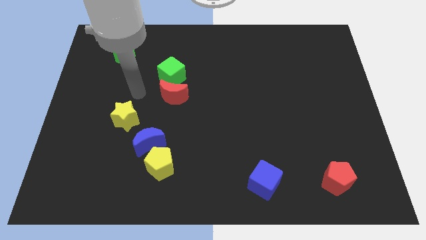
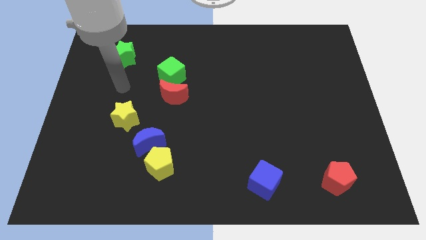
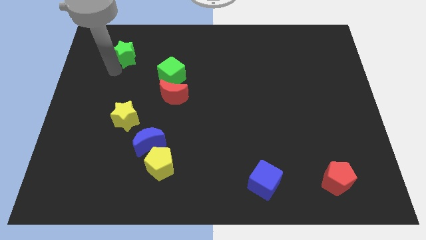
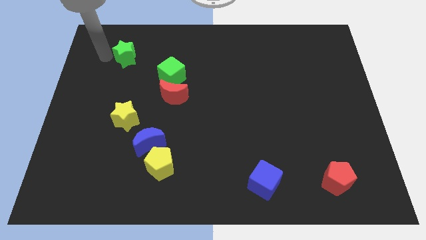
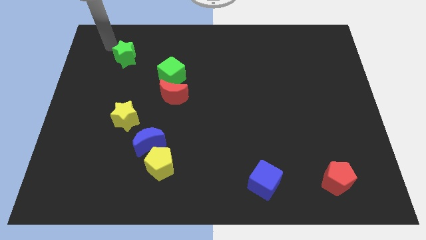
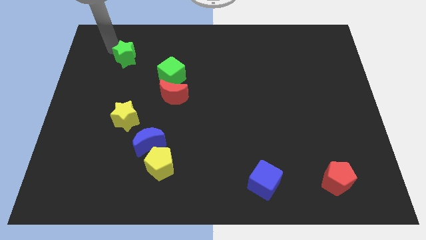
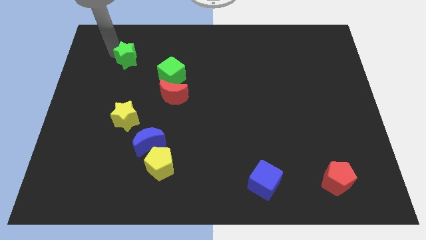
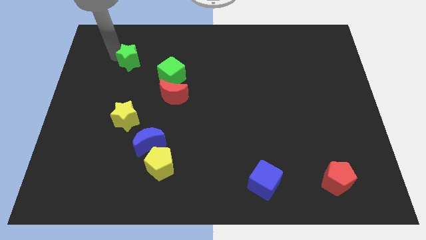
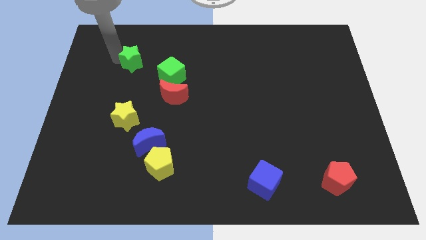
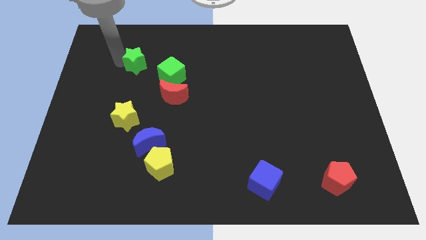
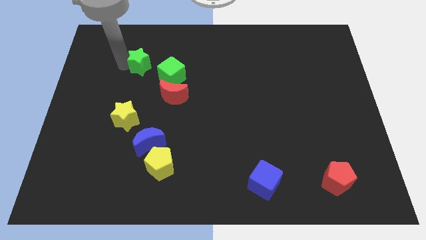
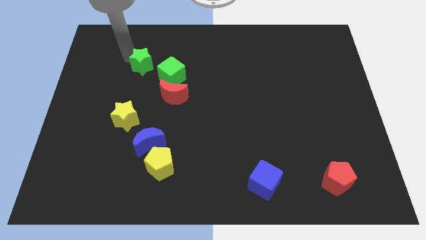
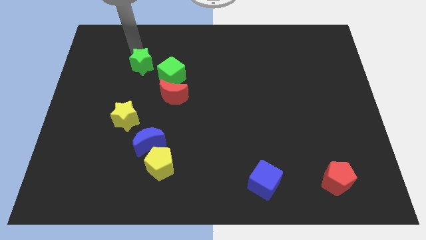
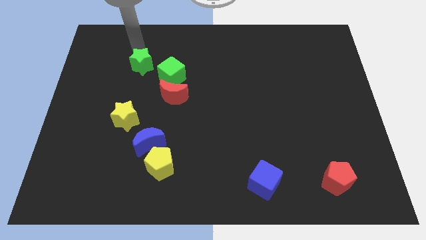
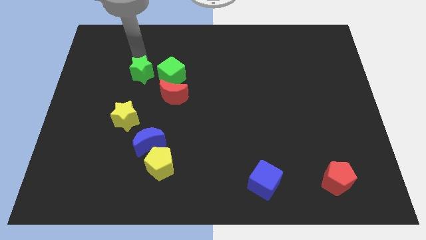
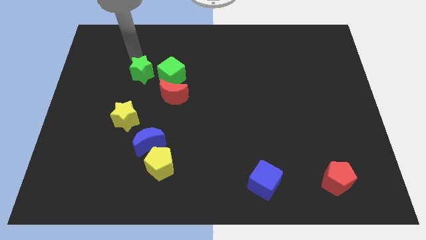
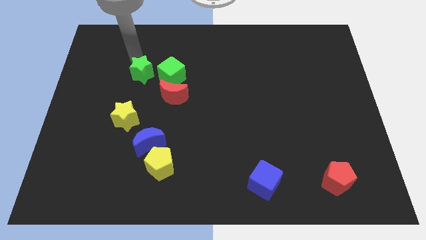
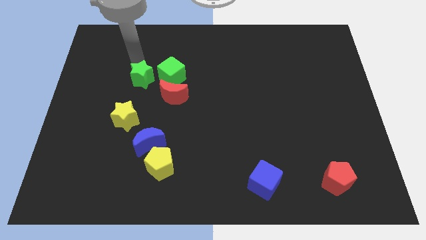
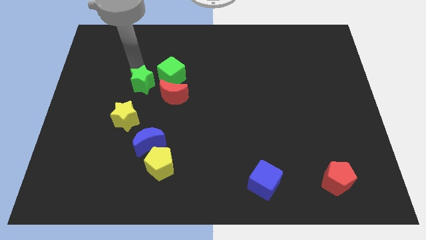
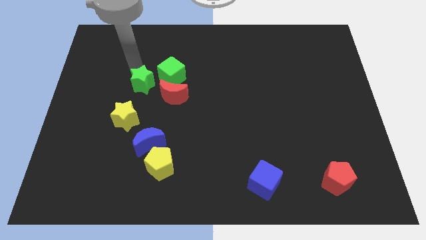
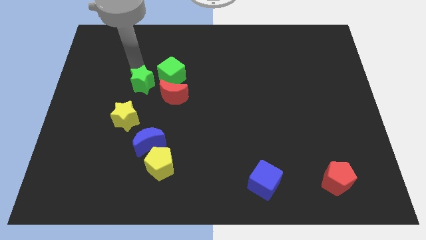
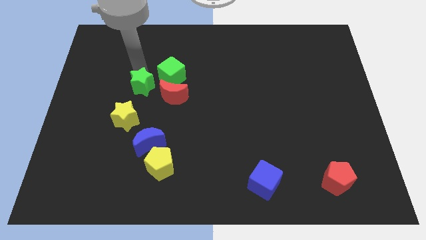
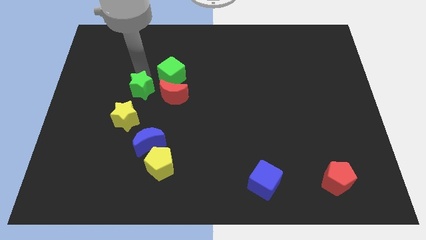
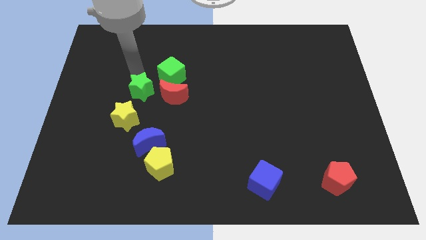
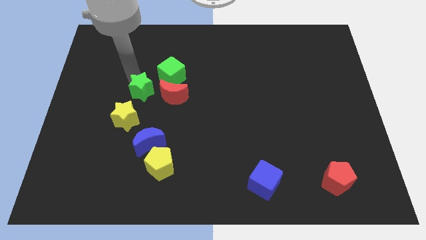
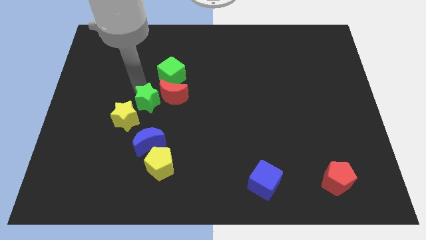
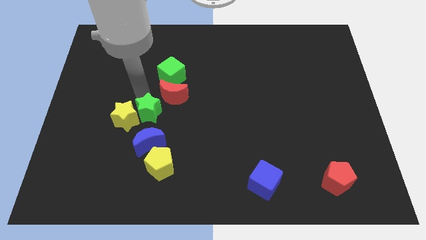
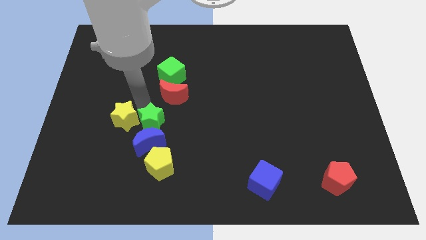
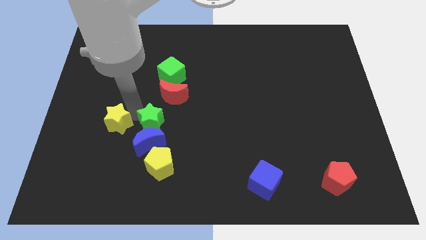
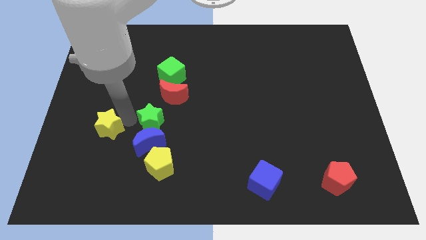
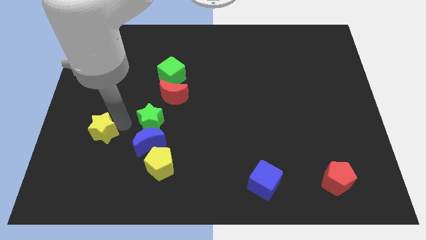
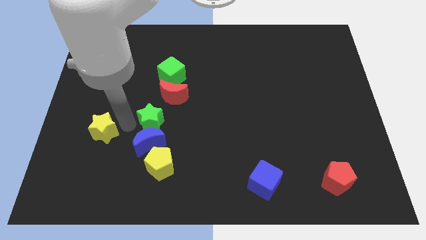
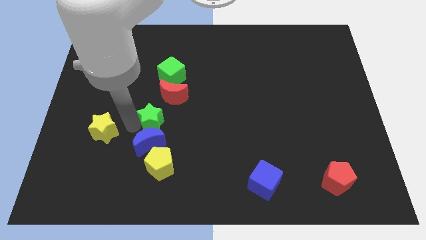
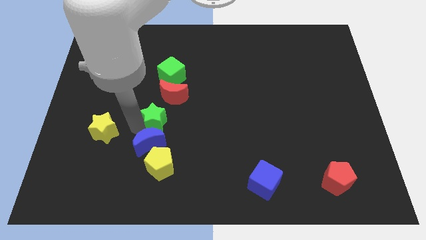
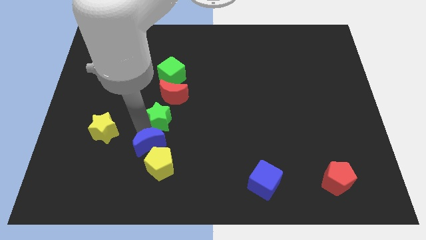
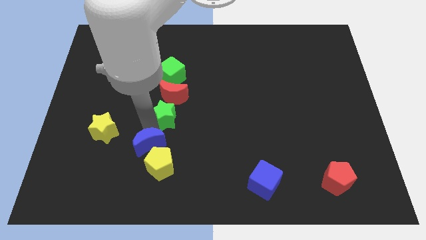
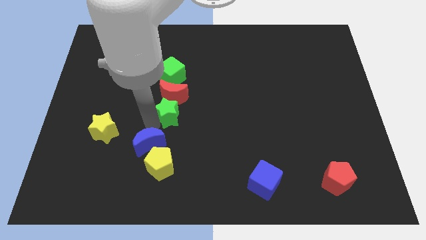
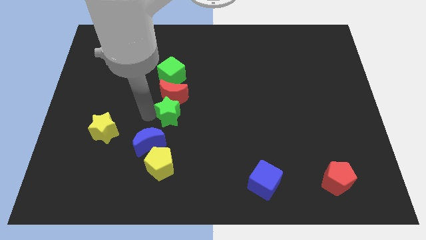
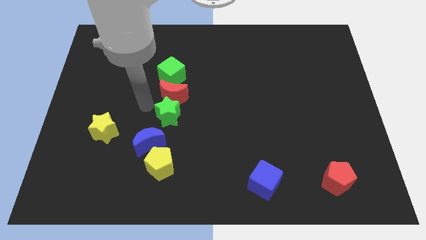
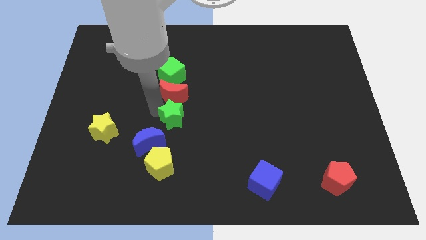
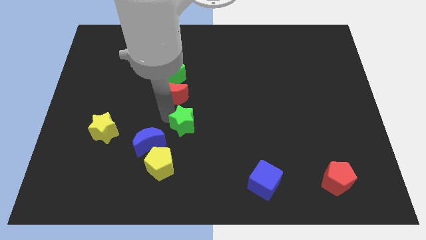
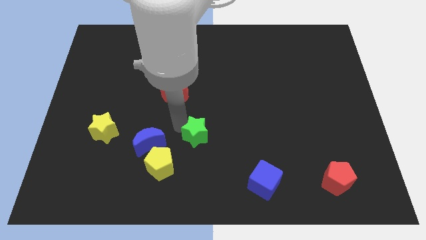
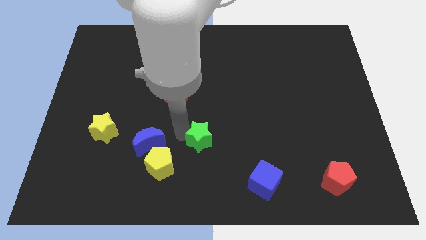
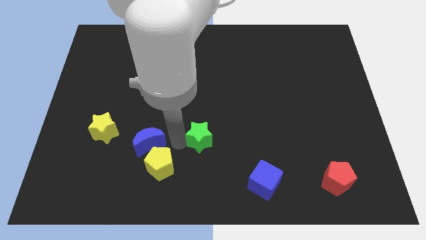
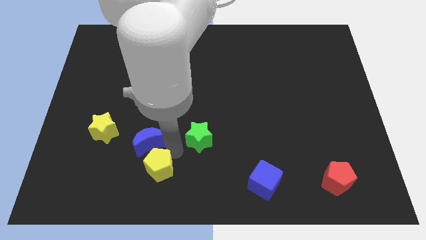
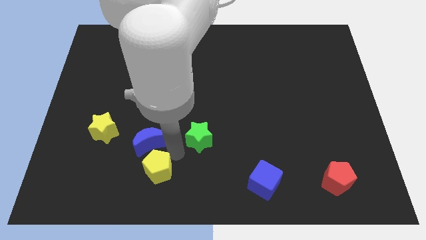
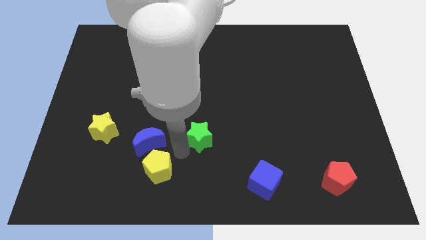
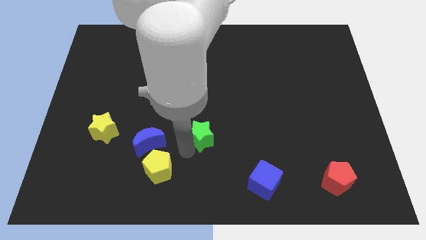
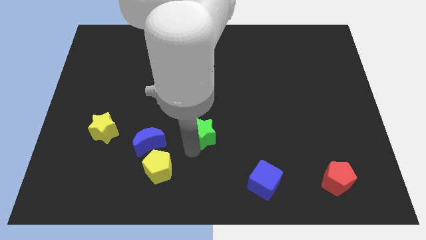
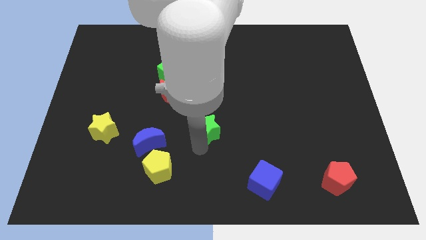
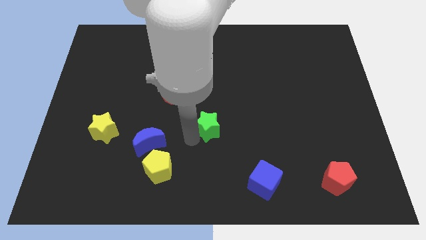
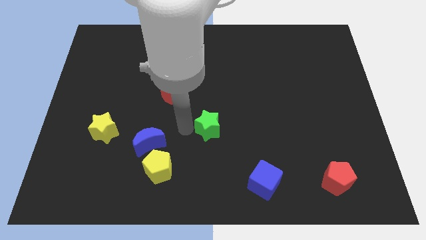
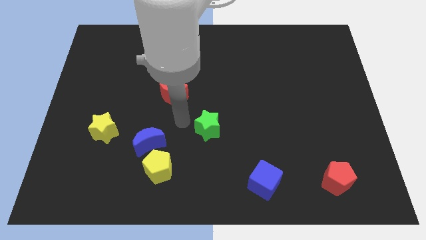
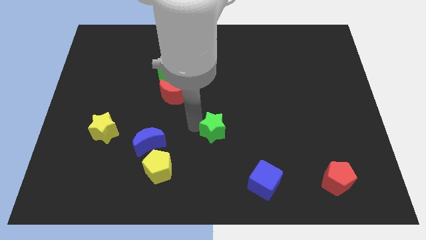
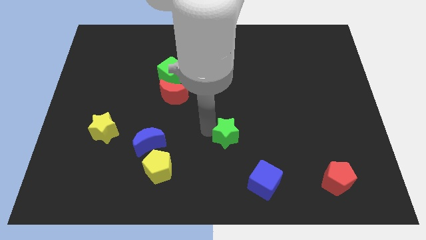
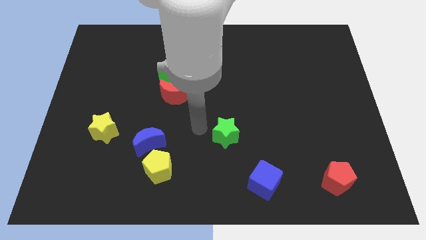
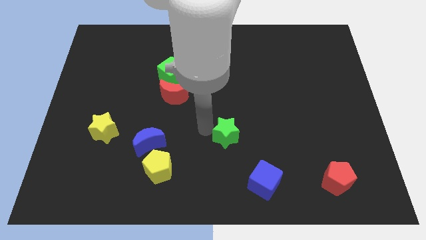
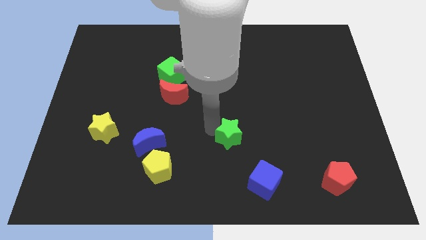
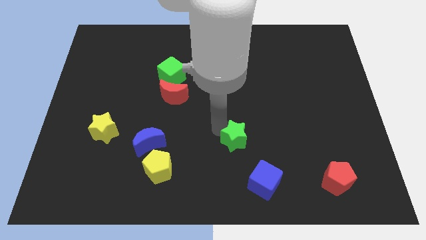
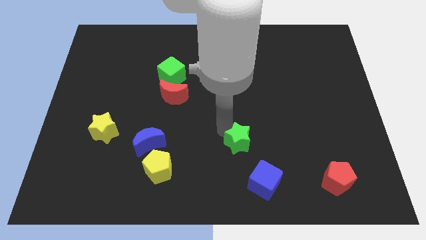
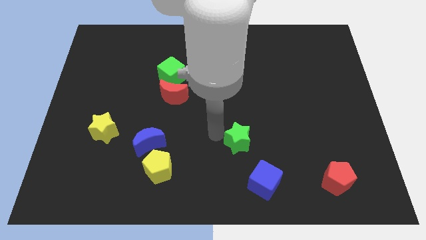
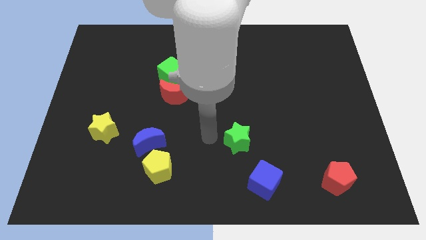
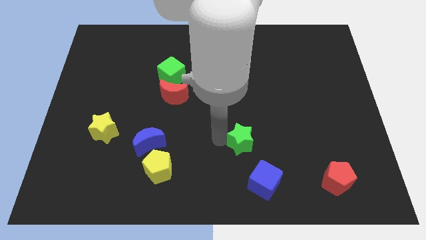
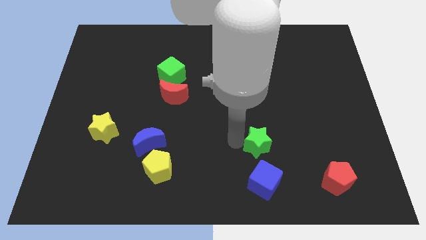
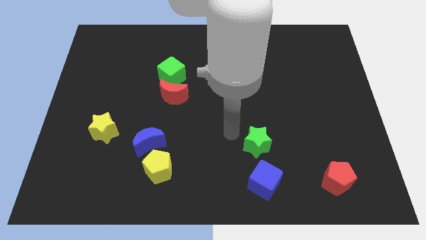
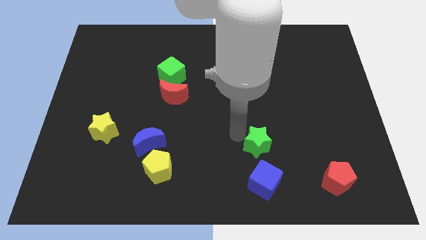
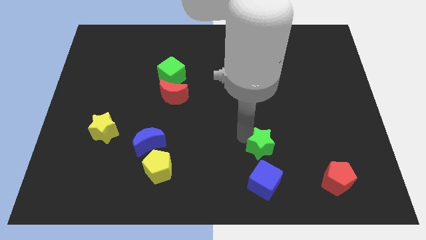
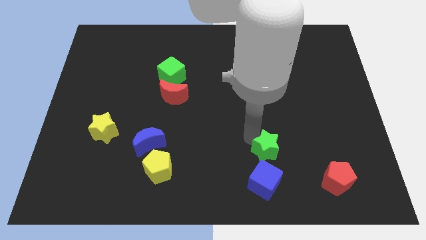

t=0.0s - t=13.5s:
push the green star to the top right of the blue cube
